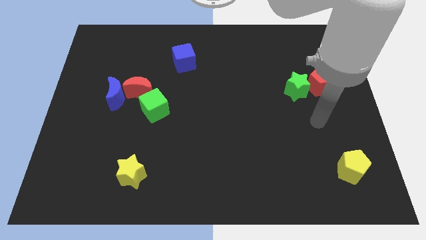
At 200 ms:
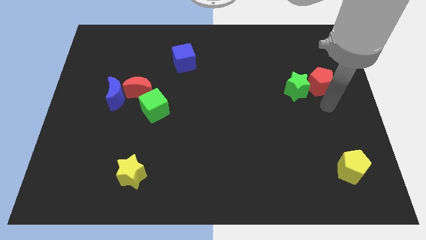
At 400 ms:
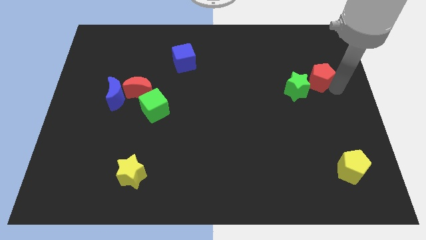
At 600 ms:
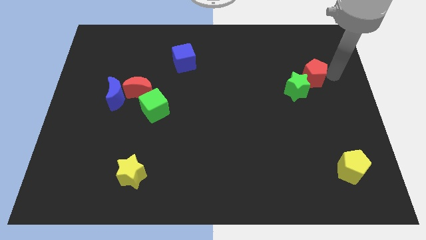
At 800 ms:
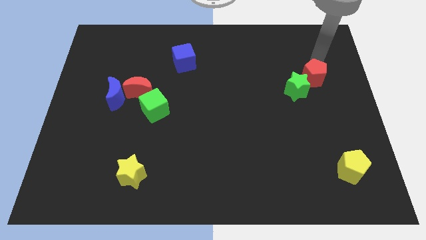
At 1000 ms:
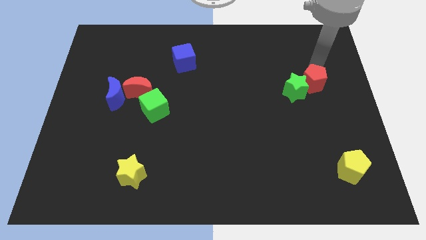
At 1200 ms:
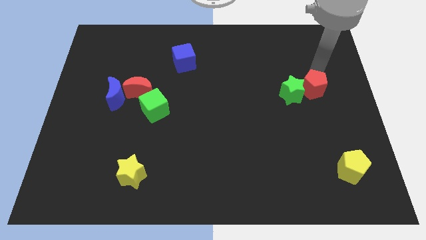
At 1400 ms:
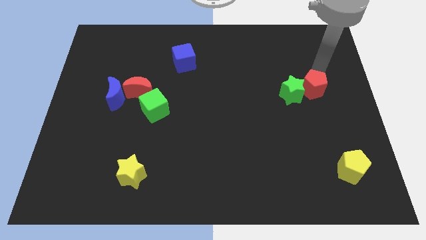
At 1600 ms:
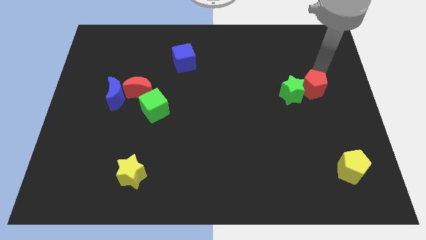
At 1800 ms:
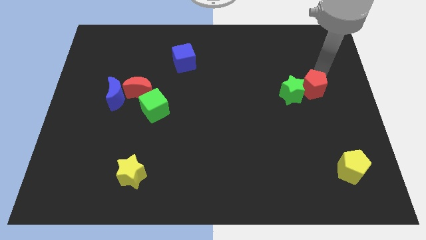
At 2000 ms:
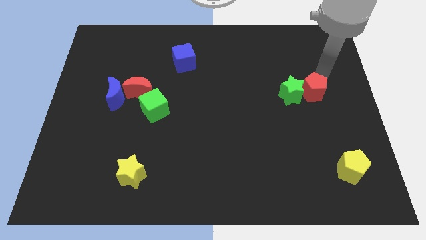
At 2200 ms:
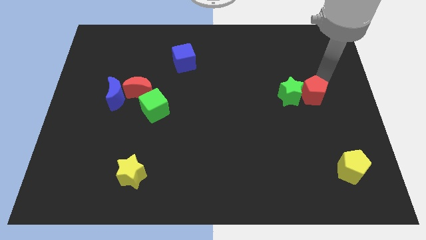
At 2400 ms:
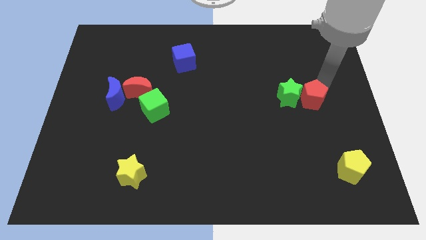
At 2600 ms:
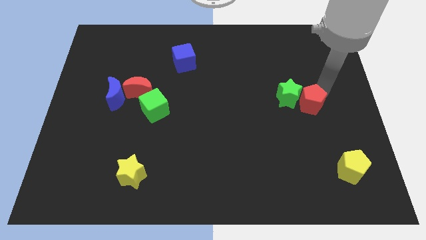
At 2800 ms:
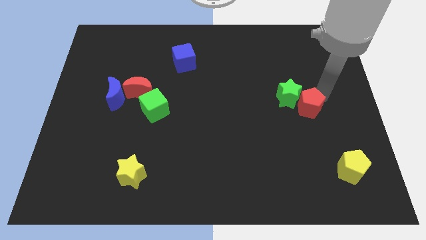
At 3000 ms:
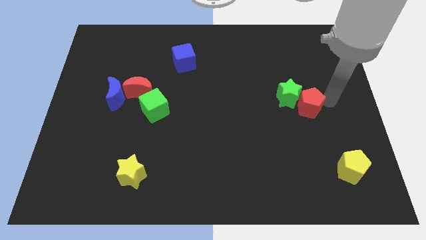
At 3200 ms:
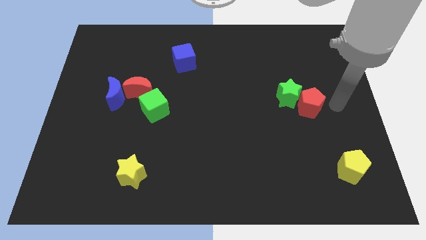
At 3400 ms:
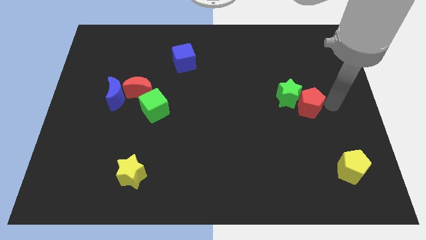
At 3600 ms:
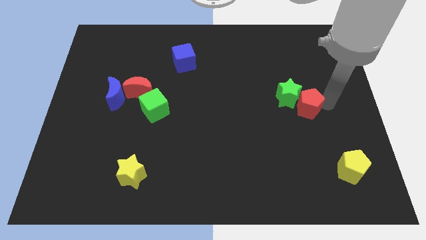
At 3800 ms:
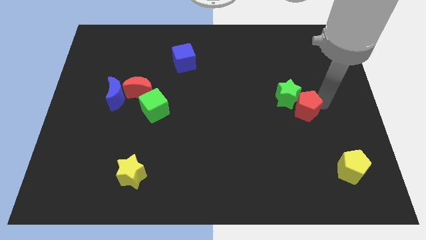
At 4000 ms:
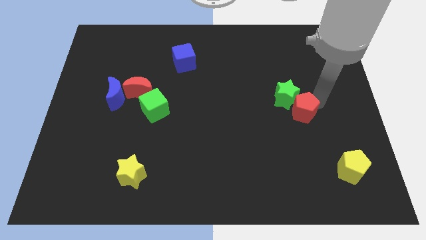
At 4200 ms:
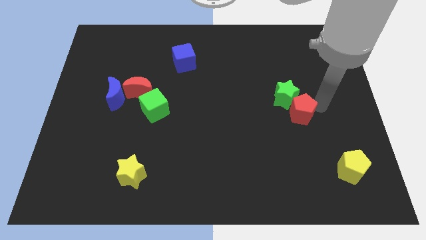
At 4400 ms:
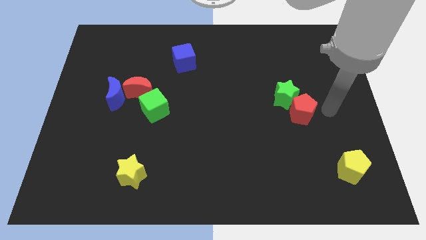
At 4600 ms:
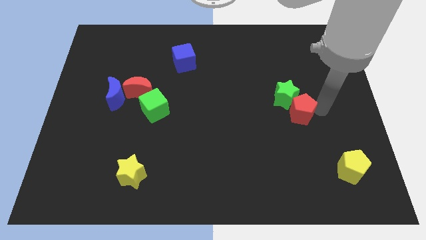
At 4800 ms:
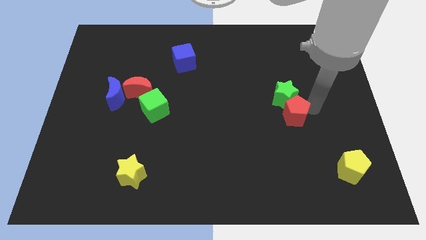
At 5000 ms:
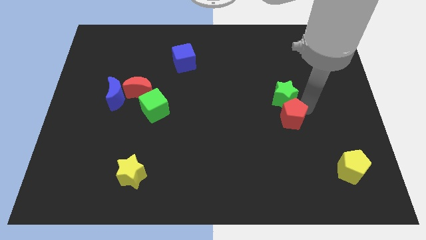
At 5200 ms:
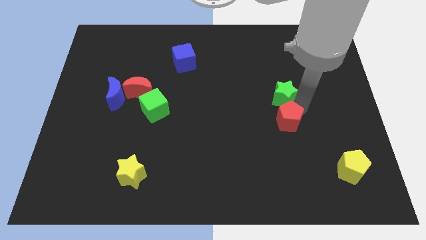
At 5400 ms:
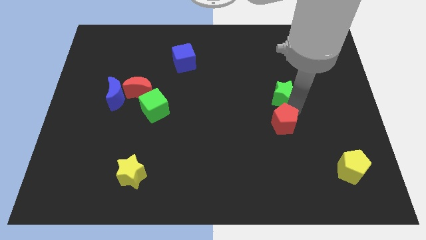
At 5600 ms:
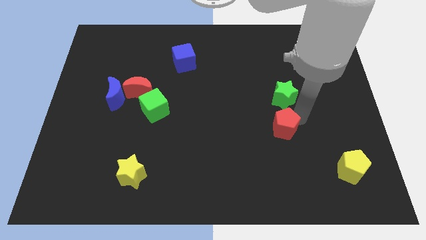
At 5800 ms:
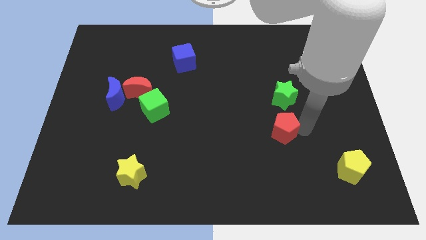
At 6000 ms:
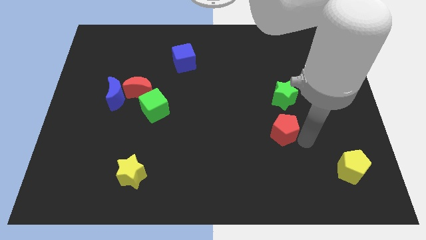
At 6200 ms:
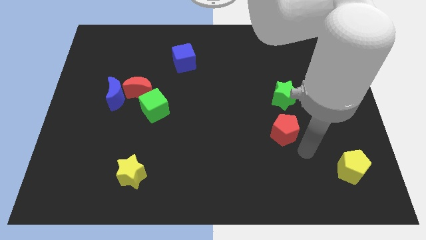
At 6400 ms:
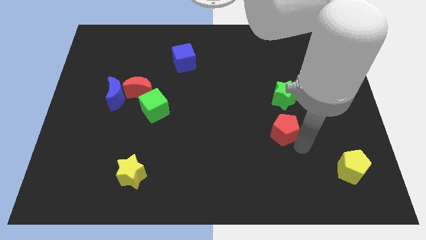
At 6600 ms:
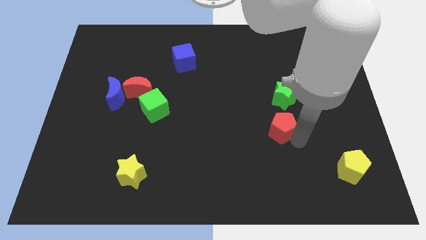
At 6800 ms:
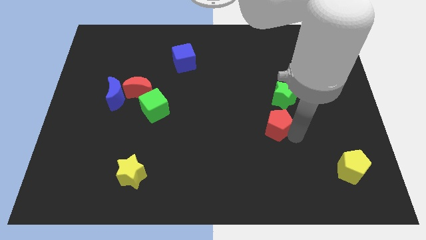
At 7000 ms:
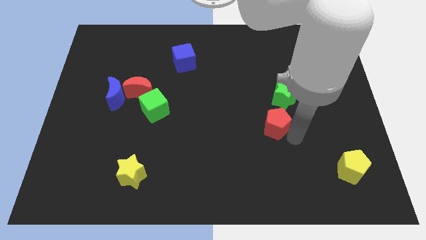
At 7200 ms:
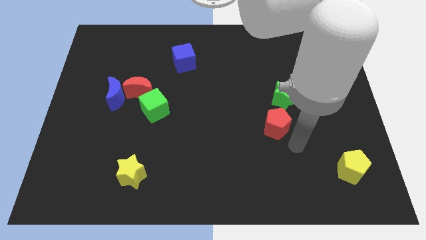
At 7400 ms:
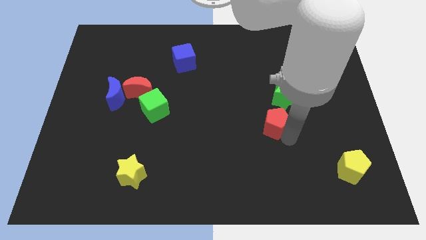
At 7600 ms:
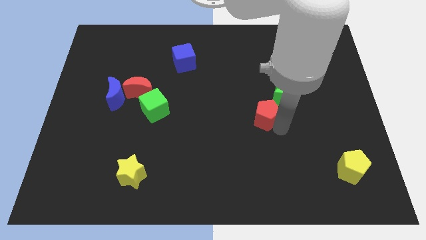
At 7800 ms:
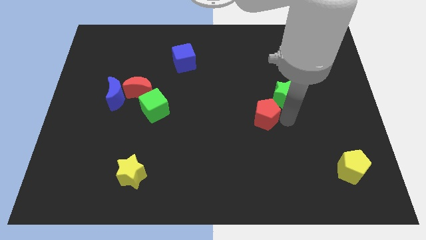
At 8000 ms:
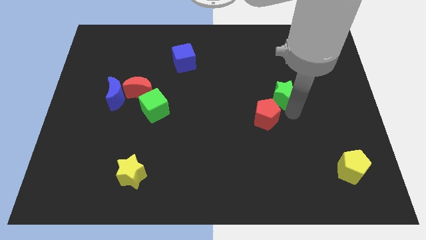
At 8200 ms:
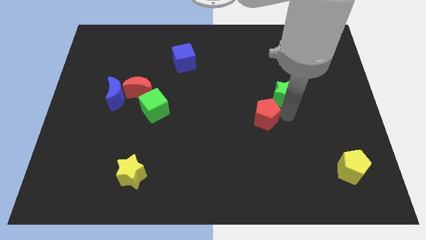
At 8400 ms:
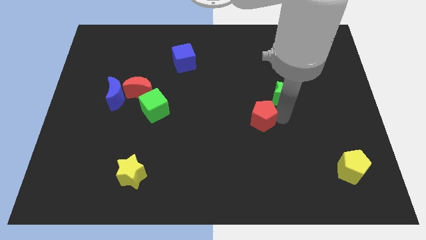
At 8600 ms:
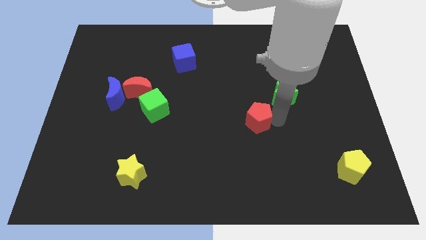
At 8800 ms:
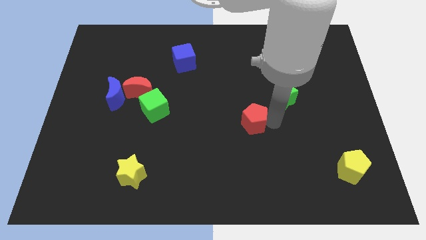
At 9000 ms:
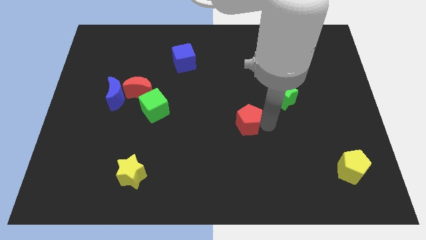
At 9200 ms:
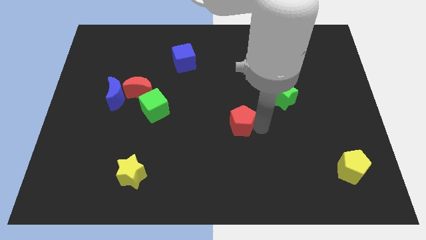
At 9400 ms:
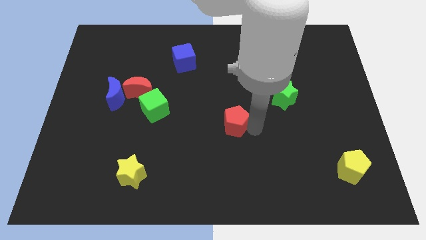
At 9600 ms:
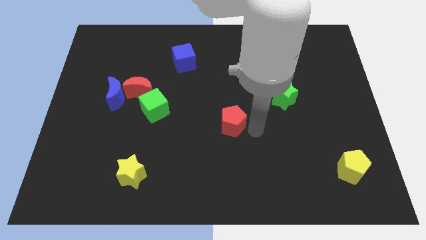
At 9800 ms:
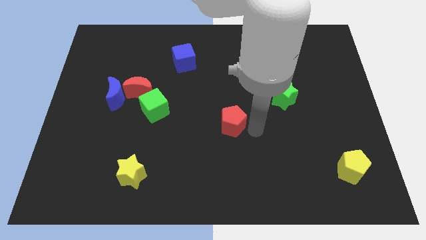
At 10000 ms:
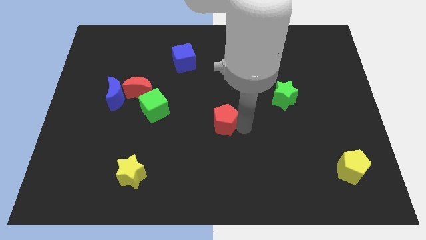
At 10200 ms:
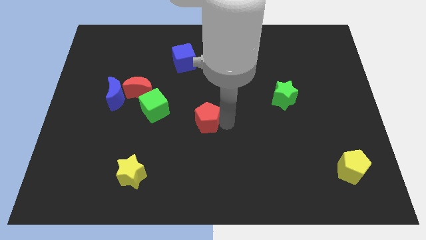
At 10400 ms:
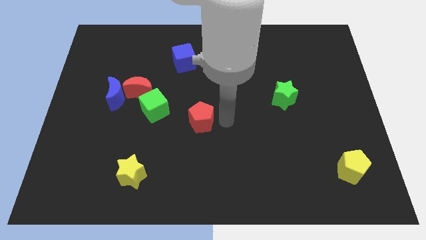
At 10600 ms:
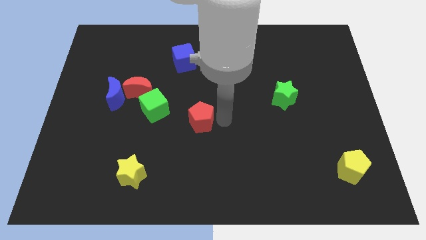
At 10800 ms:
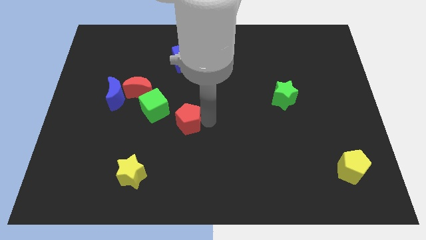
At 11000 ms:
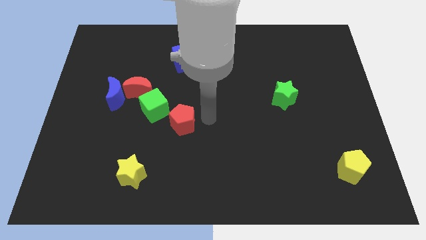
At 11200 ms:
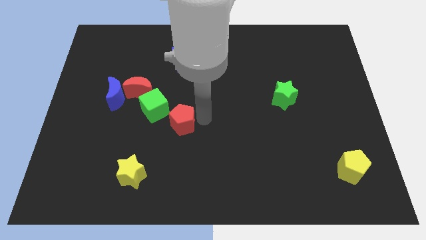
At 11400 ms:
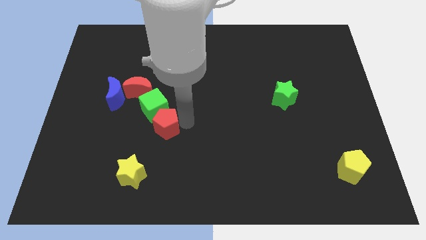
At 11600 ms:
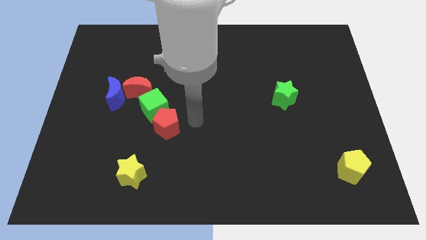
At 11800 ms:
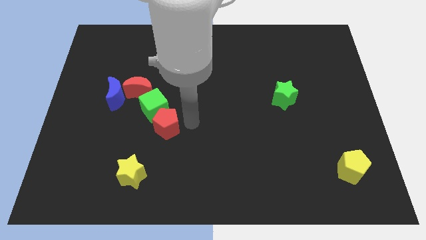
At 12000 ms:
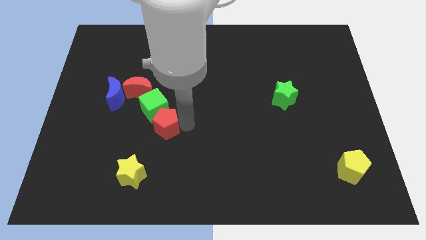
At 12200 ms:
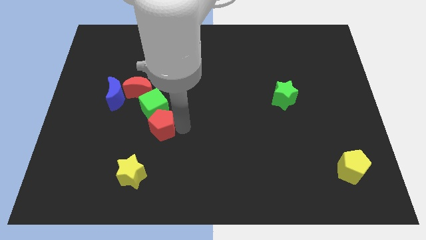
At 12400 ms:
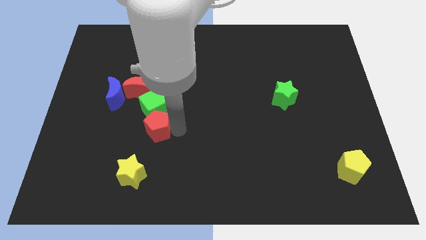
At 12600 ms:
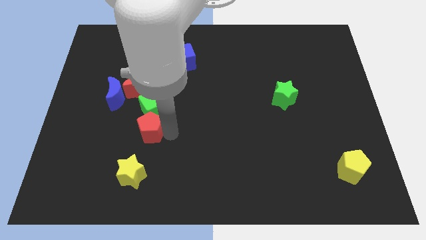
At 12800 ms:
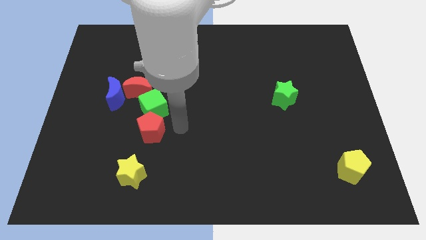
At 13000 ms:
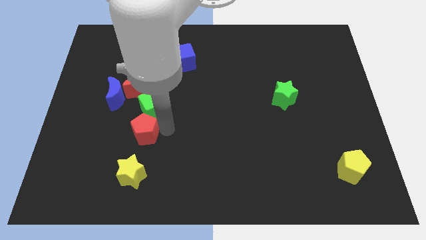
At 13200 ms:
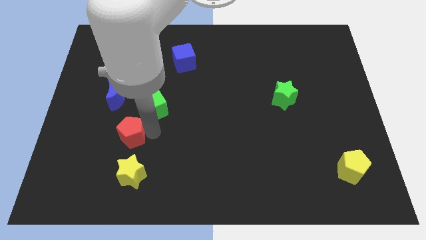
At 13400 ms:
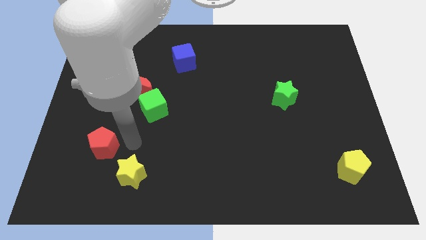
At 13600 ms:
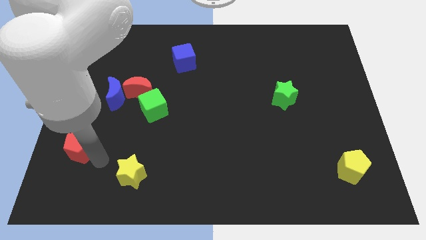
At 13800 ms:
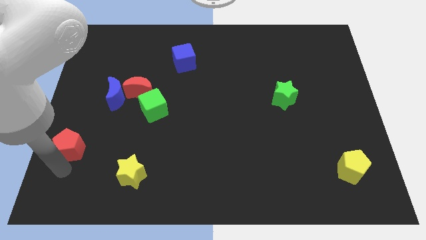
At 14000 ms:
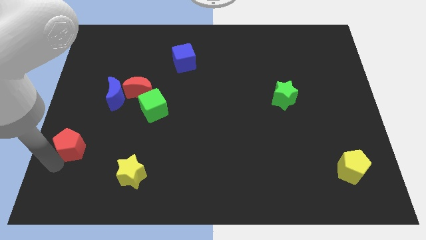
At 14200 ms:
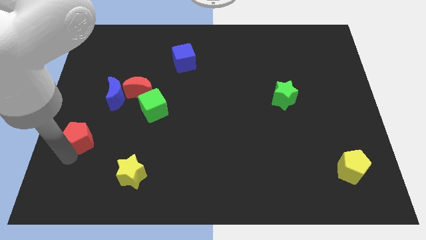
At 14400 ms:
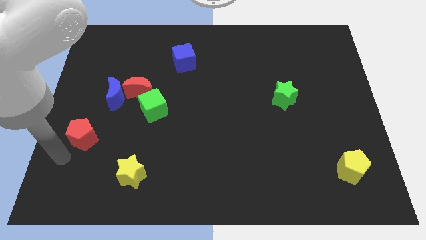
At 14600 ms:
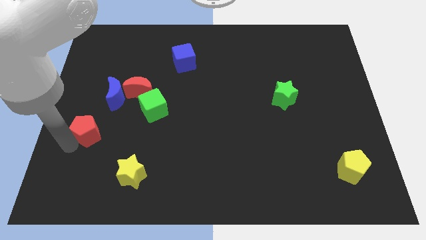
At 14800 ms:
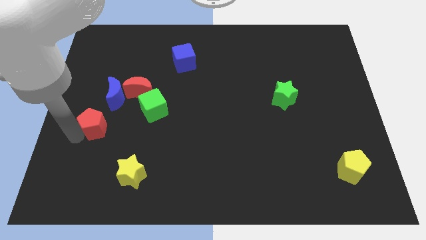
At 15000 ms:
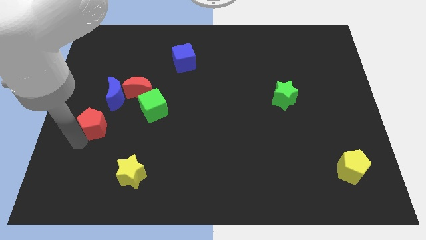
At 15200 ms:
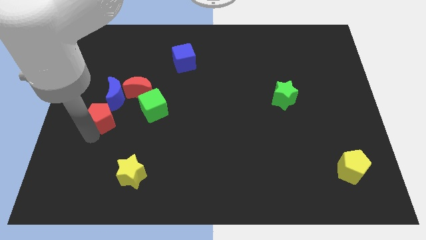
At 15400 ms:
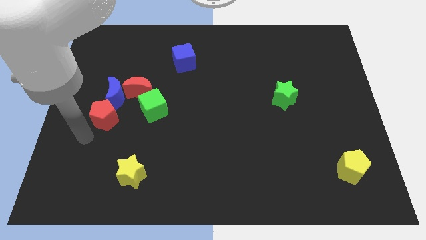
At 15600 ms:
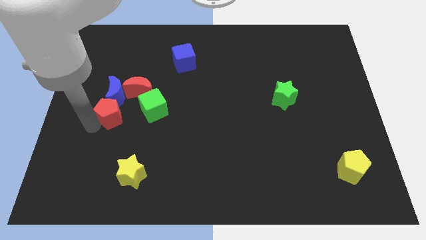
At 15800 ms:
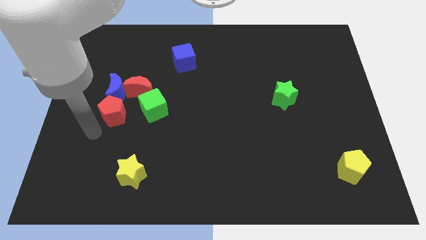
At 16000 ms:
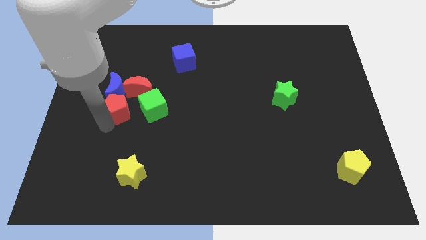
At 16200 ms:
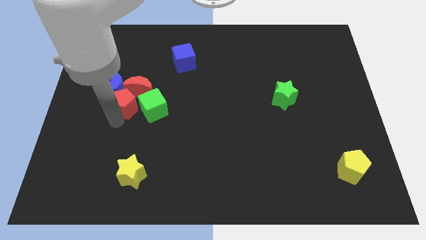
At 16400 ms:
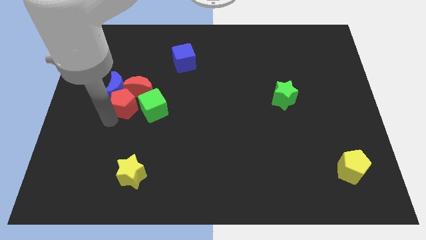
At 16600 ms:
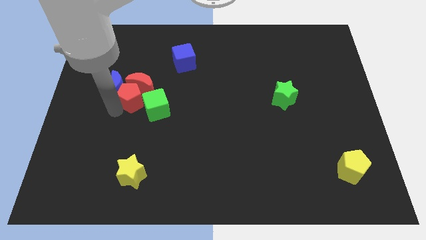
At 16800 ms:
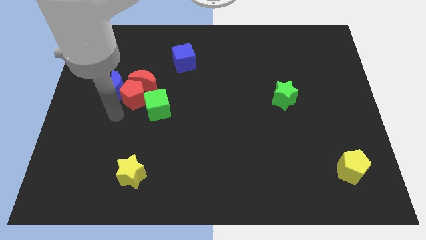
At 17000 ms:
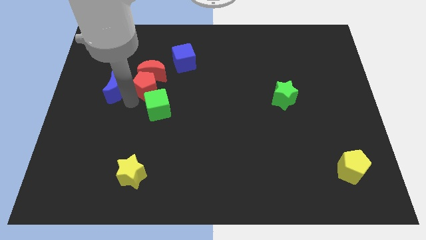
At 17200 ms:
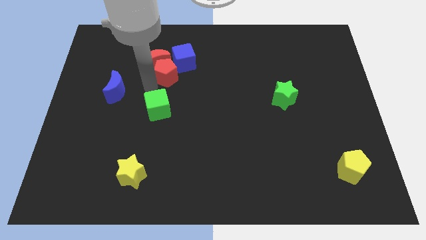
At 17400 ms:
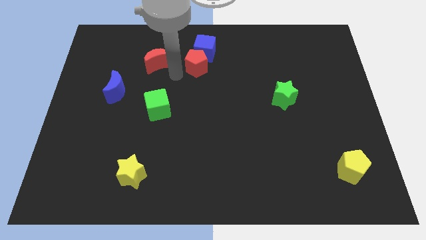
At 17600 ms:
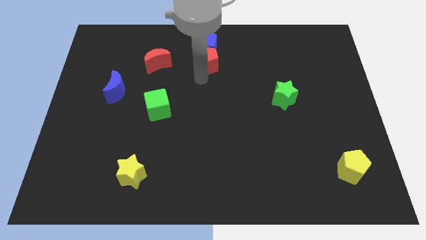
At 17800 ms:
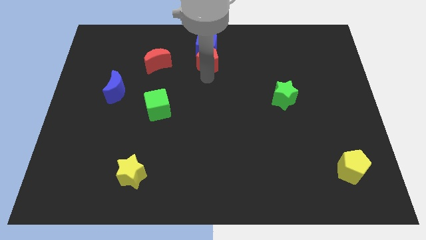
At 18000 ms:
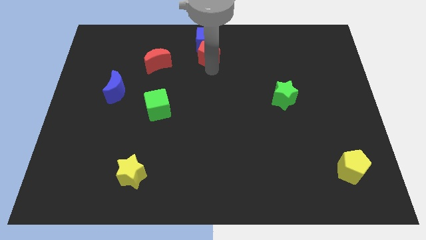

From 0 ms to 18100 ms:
move the red pentagon to the towards your base
